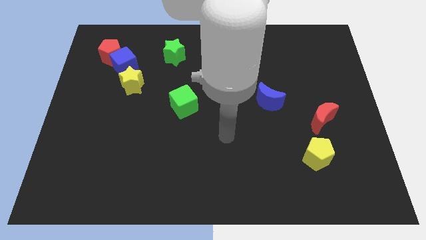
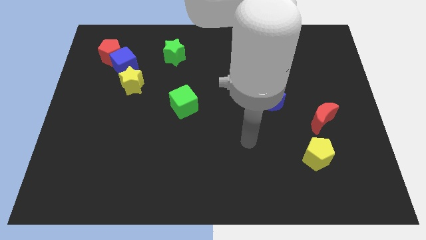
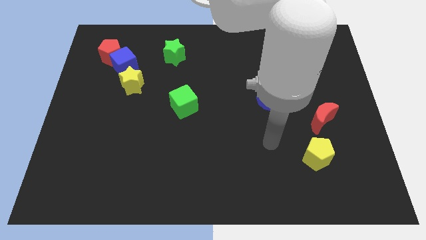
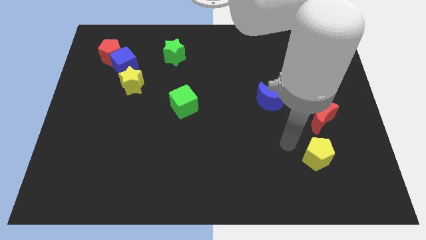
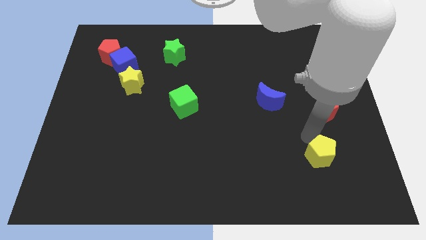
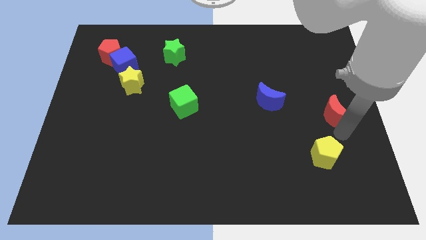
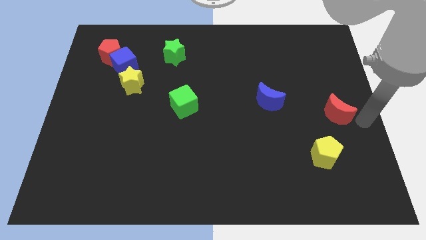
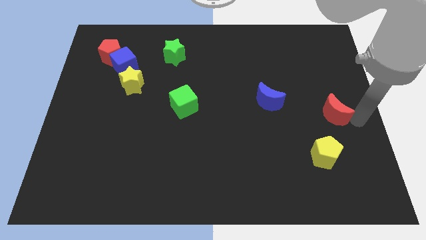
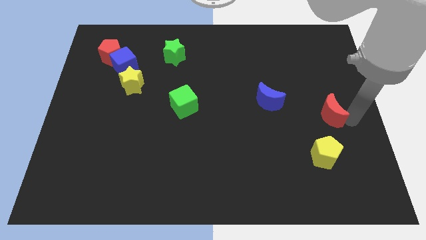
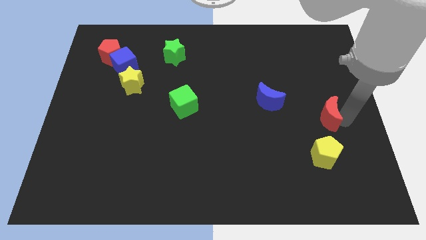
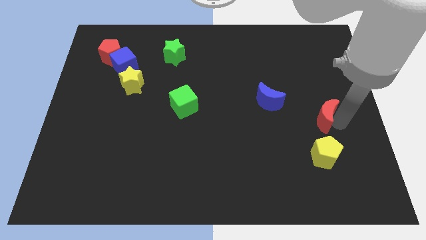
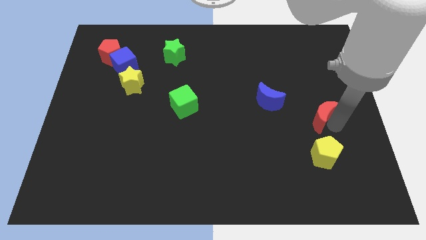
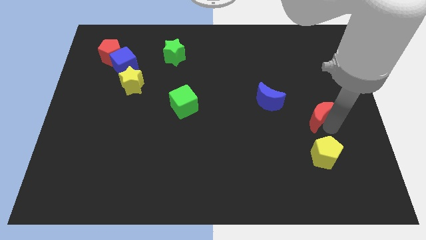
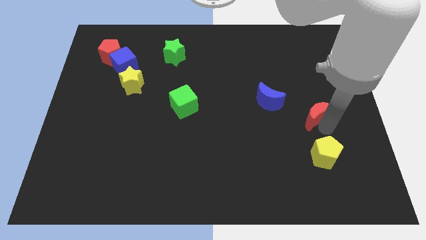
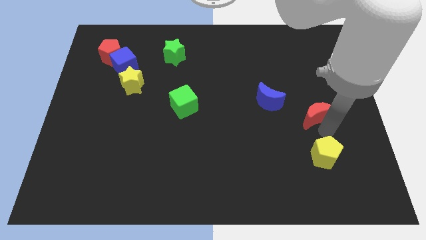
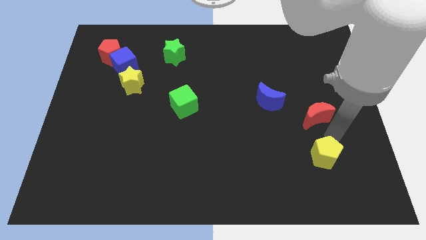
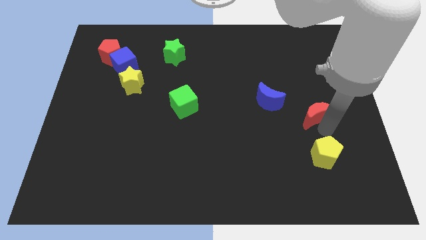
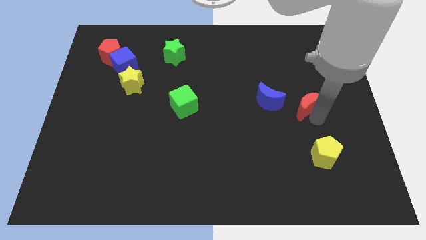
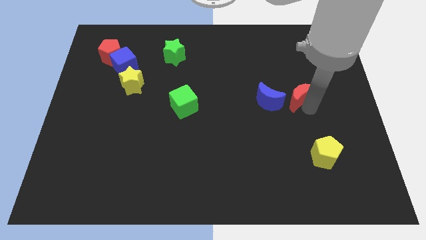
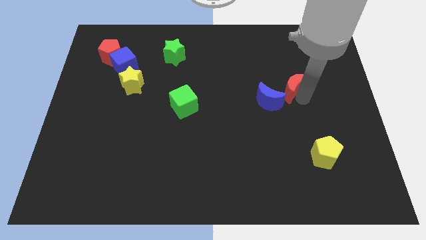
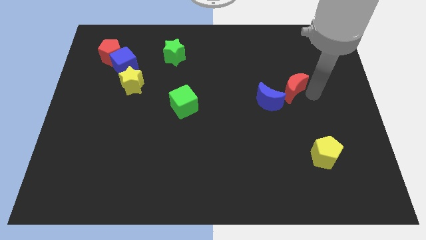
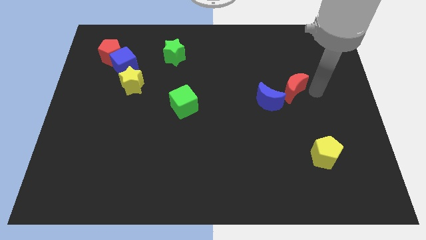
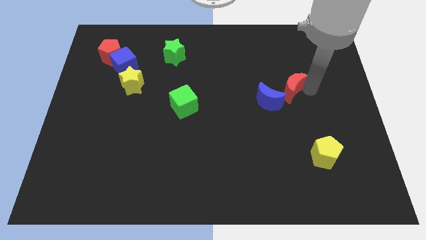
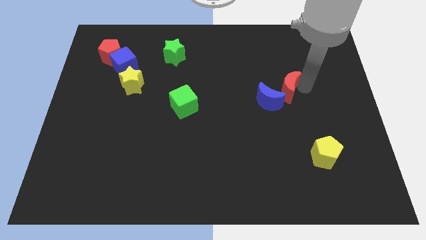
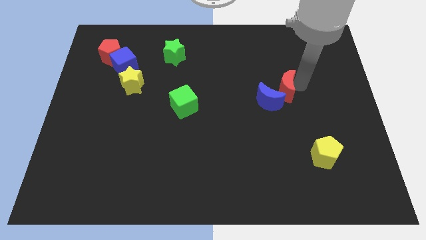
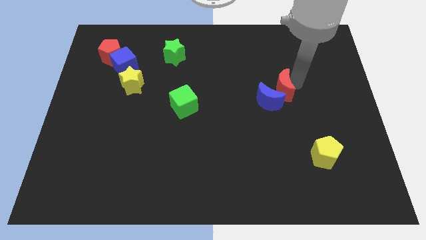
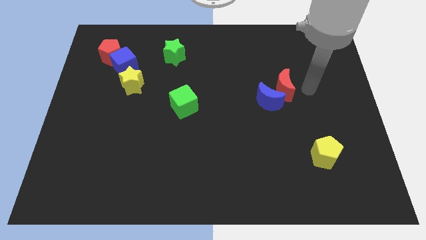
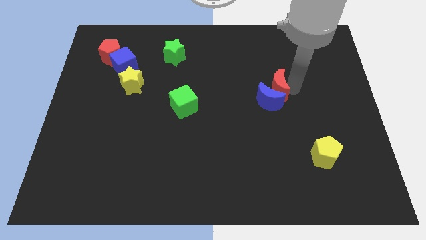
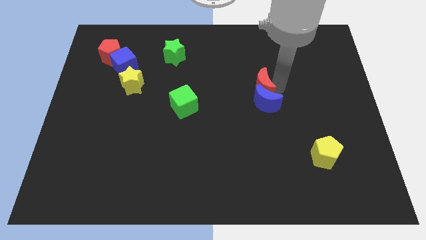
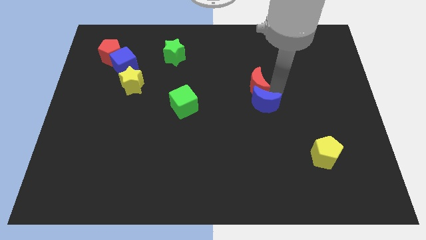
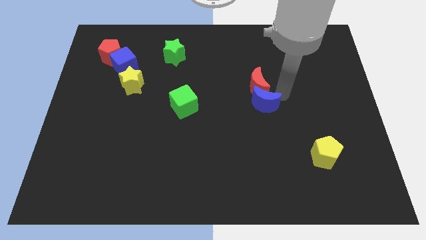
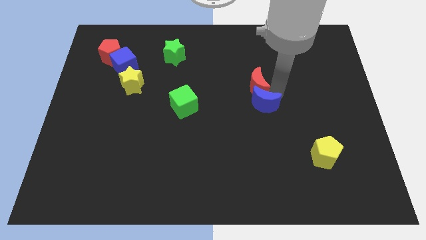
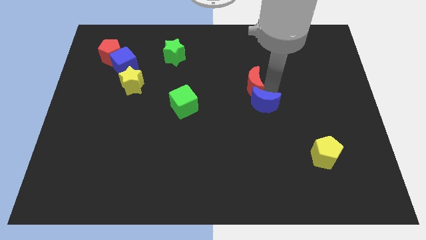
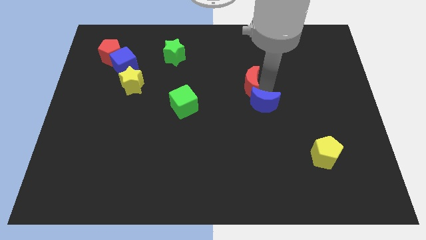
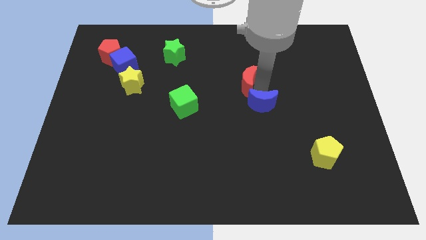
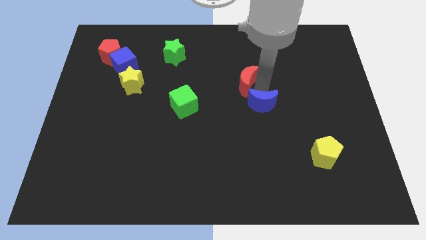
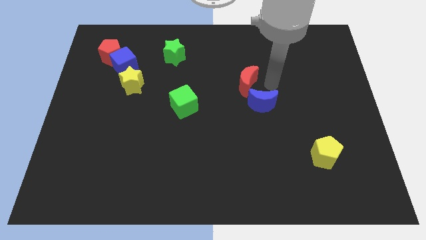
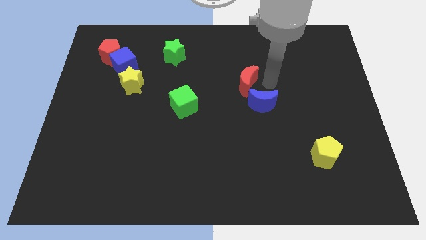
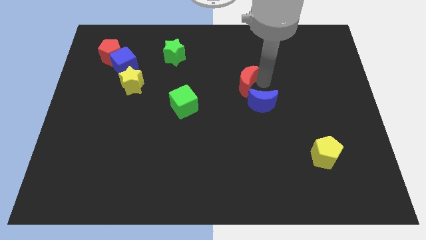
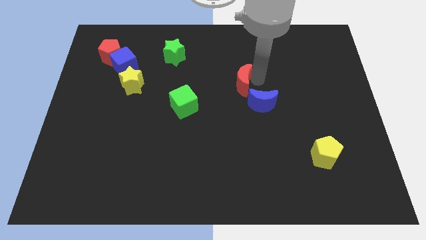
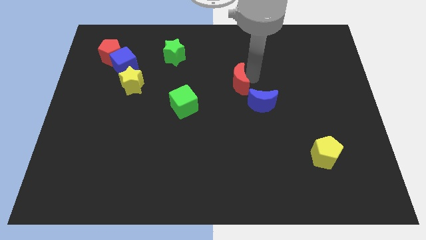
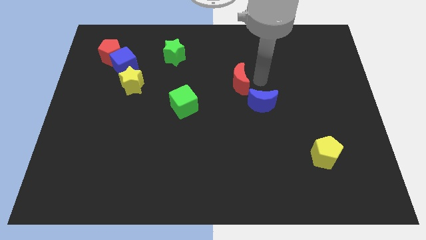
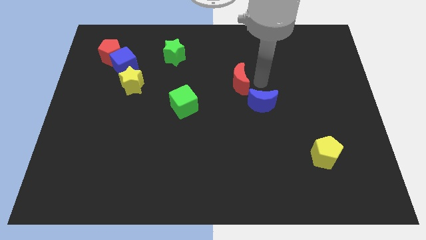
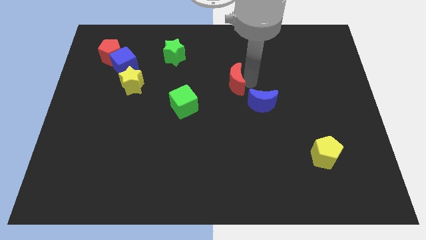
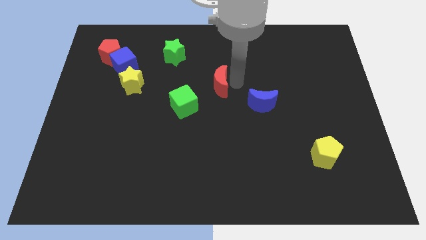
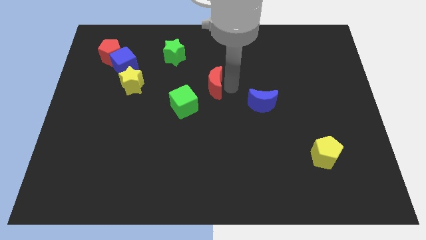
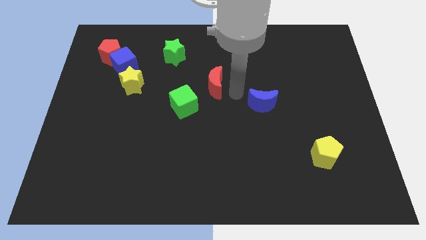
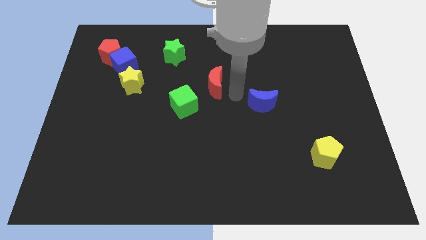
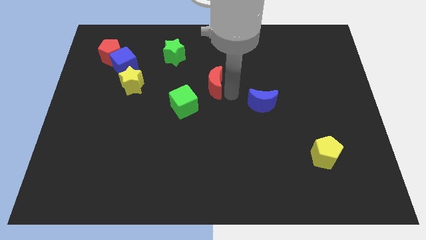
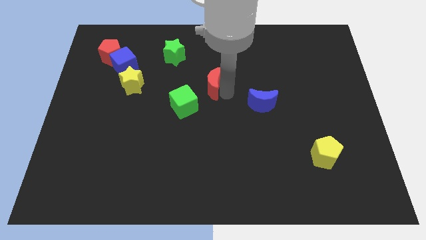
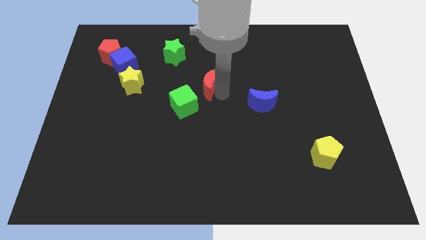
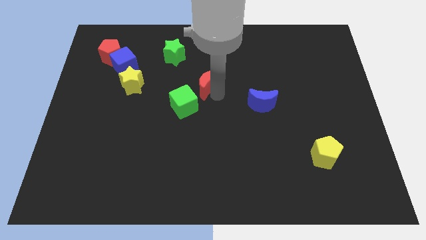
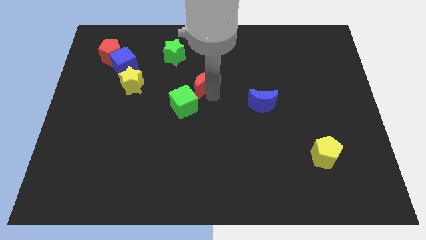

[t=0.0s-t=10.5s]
move the red moon to the top of the green cube

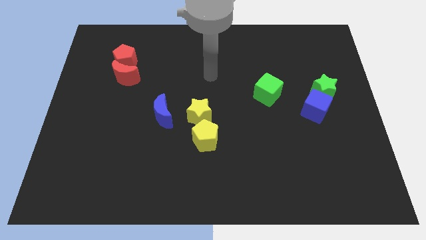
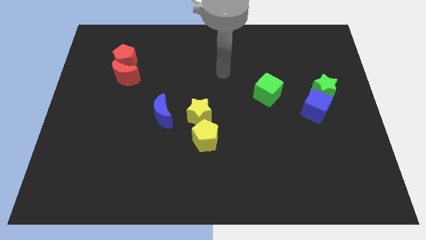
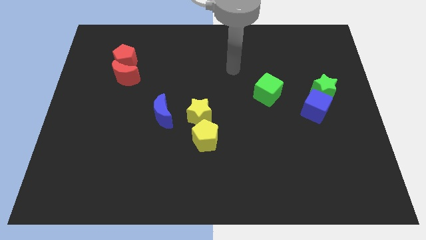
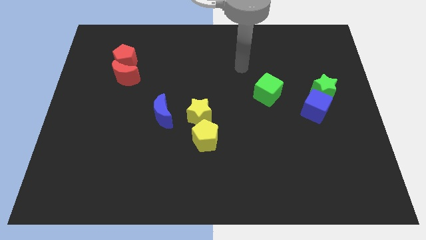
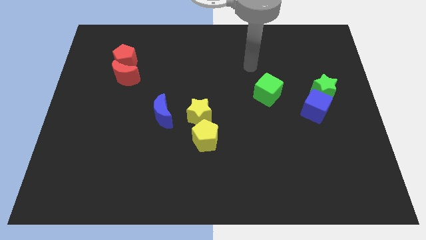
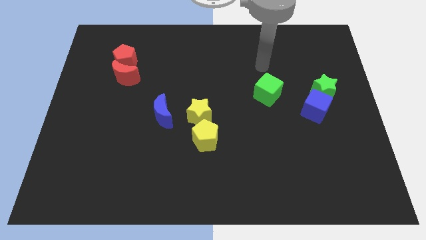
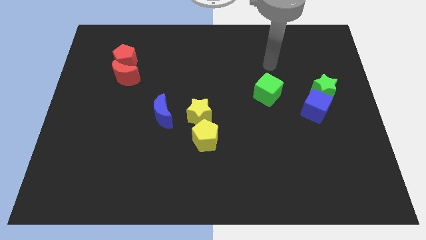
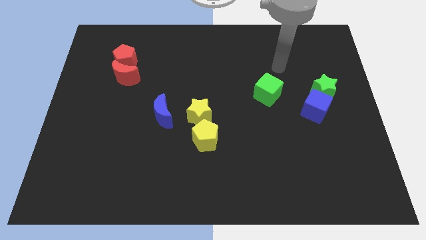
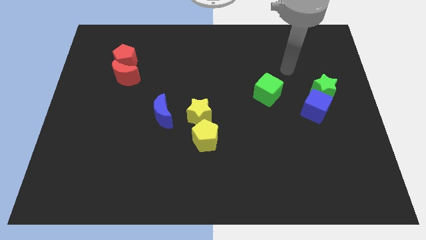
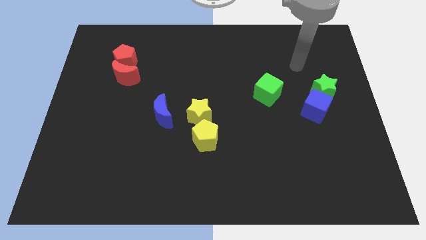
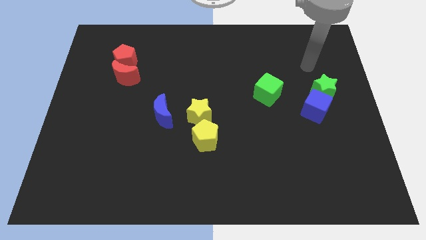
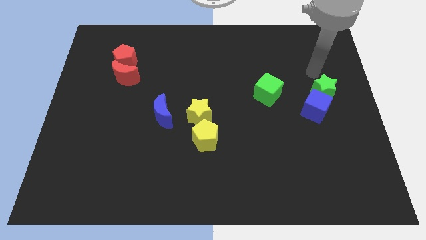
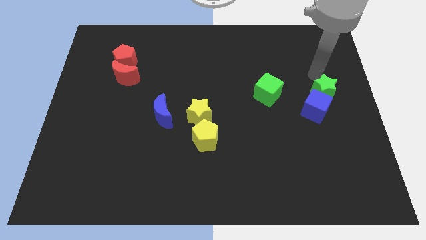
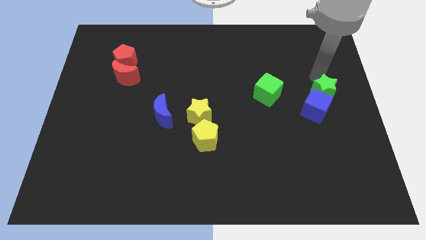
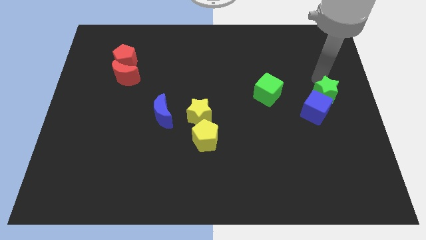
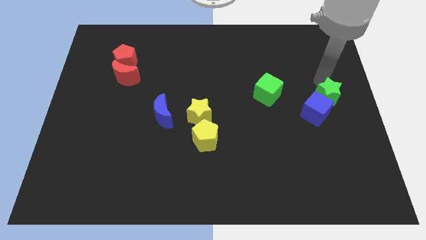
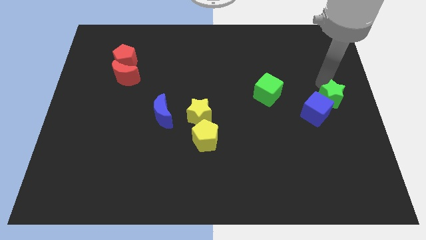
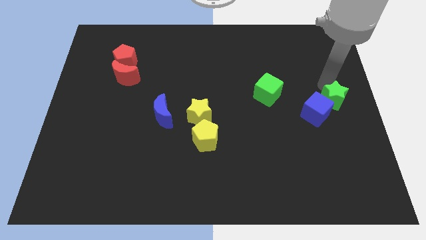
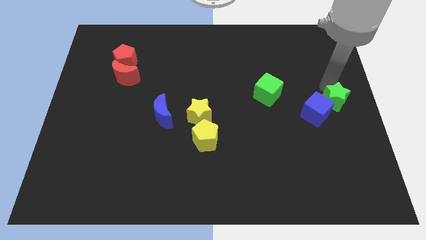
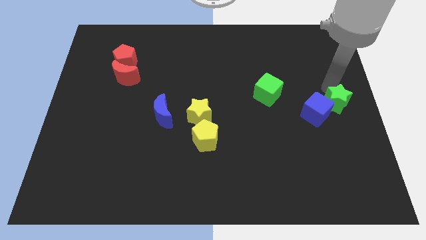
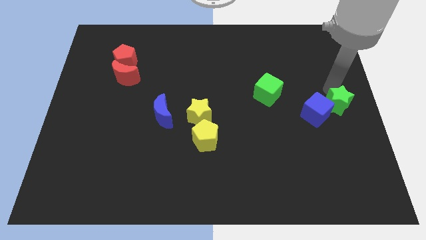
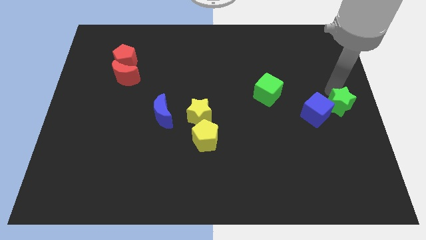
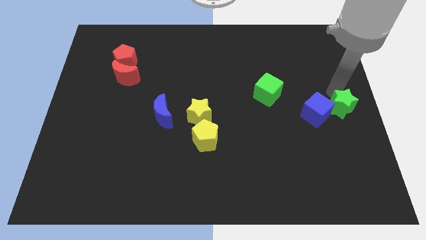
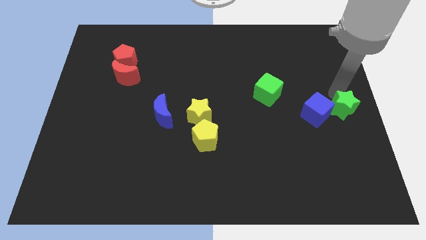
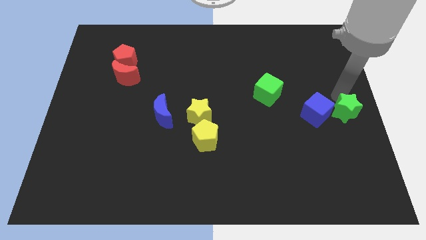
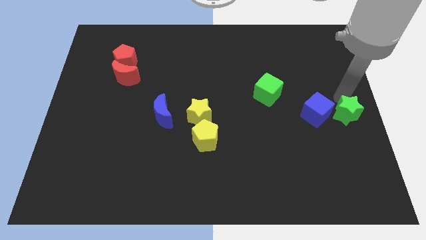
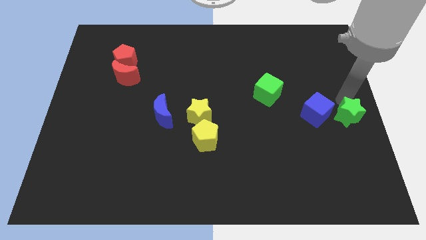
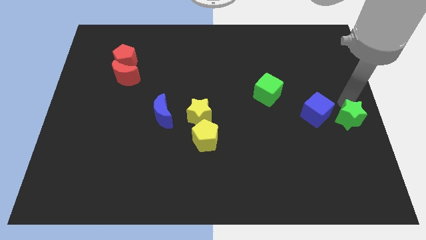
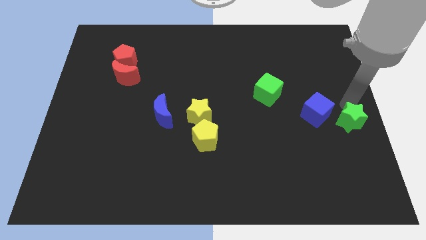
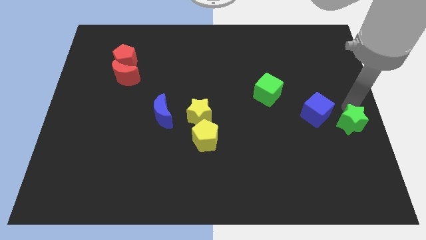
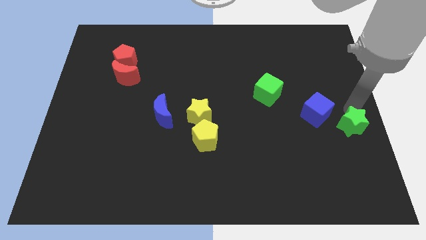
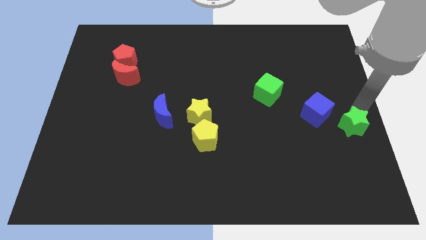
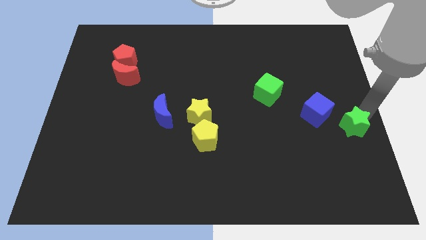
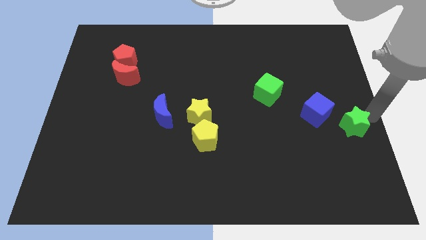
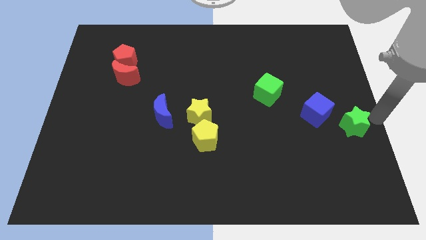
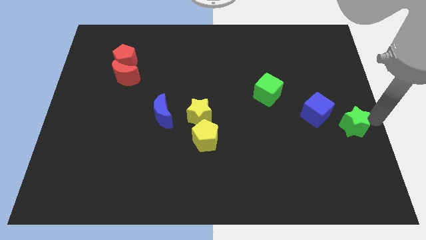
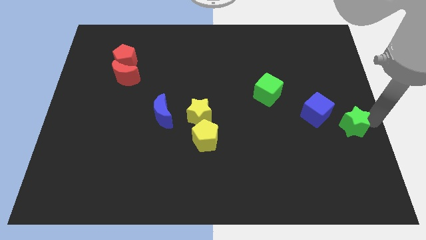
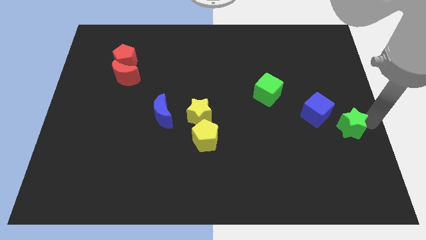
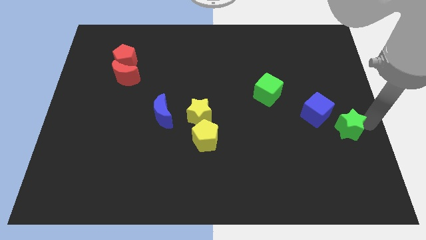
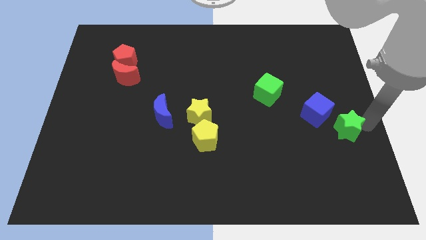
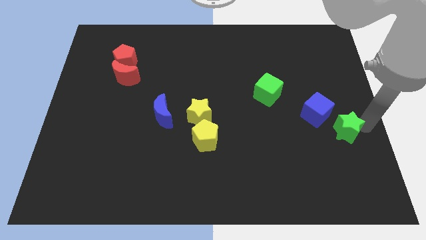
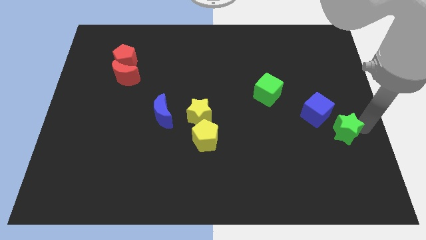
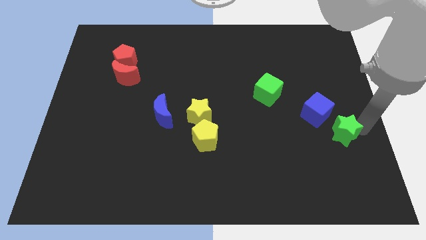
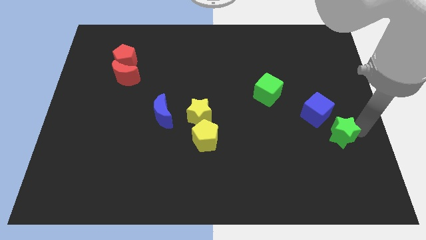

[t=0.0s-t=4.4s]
slide the green star to the bottom side of the blue cube
